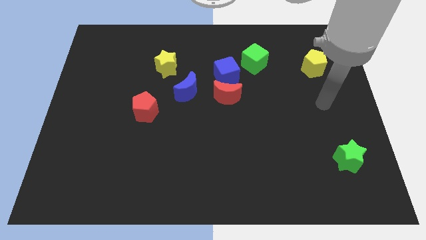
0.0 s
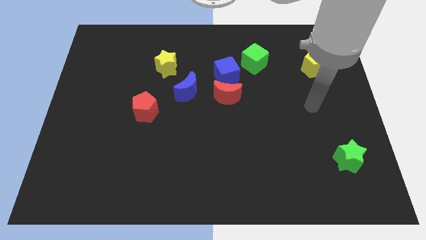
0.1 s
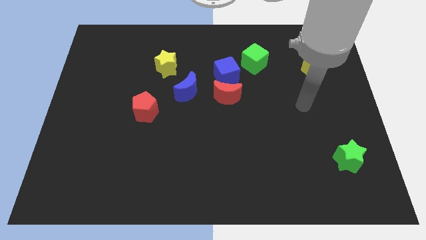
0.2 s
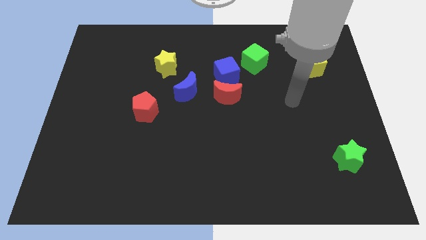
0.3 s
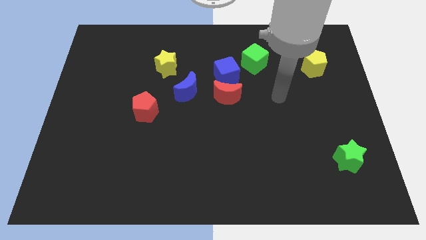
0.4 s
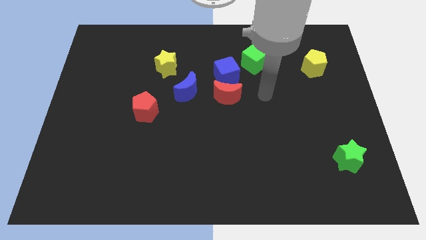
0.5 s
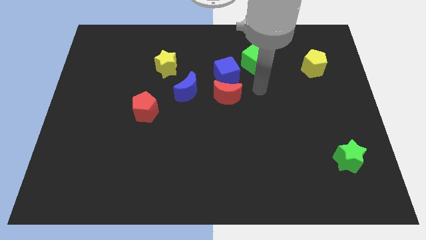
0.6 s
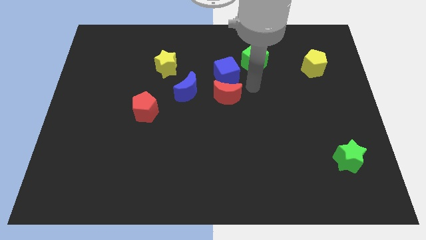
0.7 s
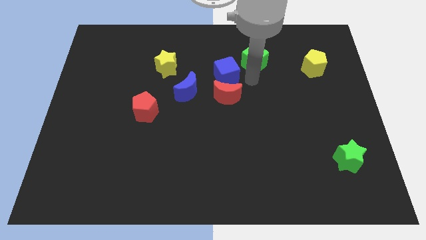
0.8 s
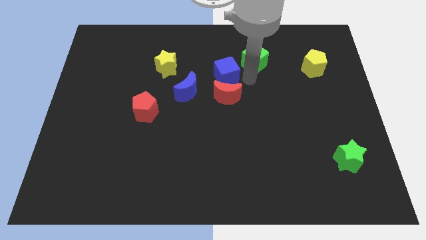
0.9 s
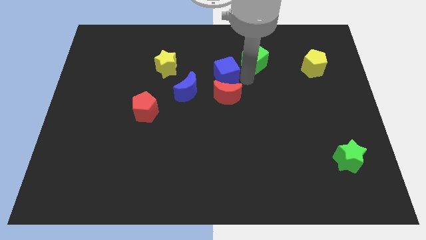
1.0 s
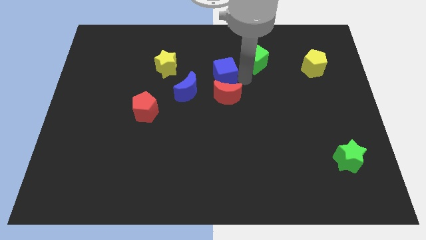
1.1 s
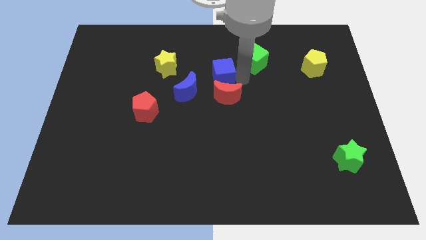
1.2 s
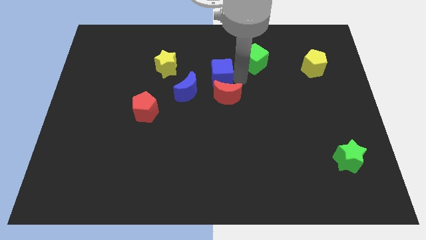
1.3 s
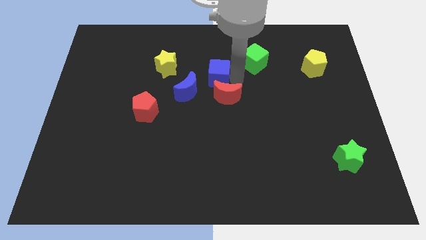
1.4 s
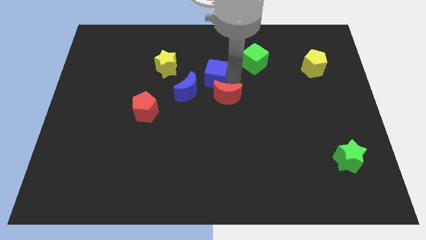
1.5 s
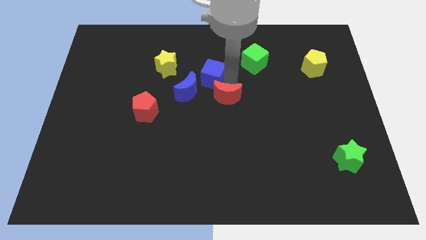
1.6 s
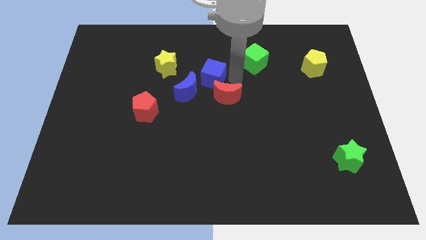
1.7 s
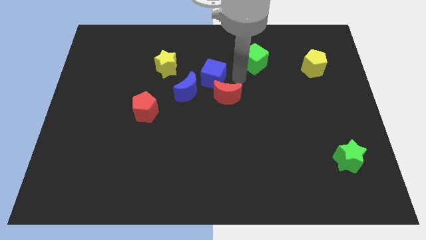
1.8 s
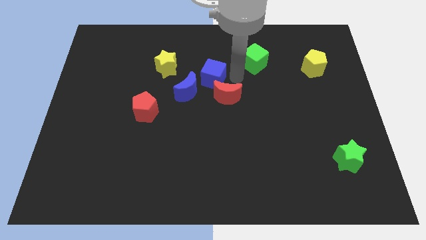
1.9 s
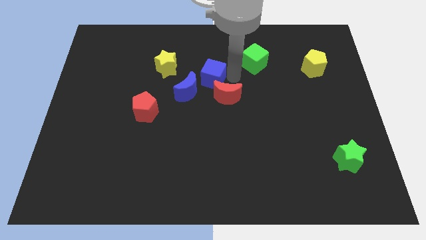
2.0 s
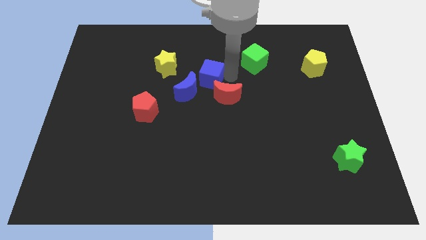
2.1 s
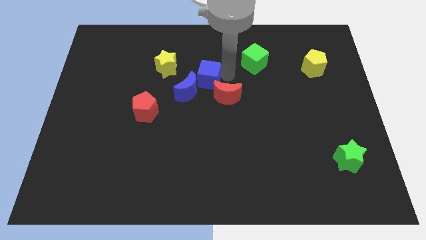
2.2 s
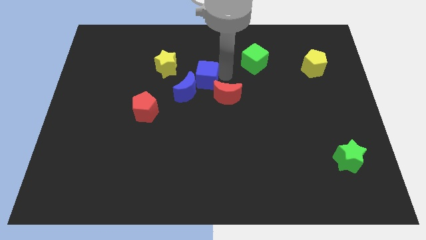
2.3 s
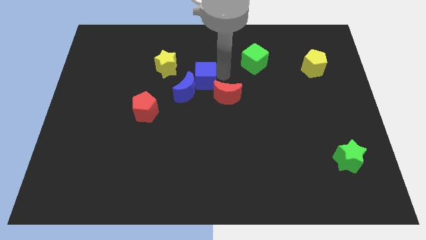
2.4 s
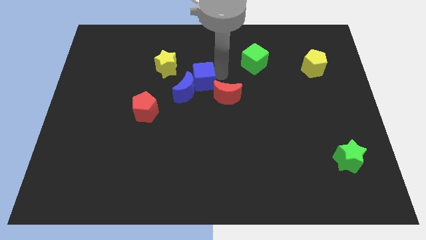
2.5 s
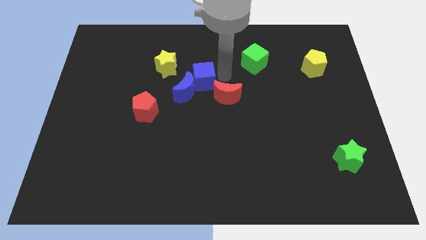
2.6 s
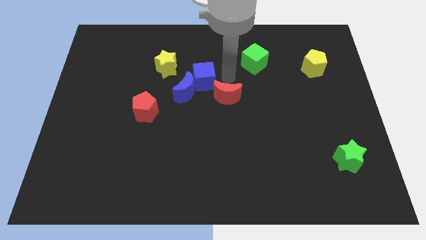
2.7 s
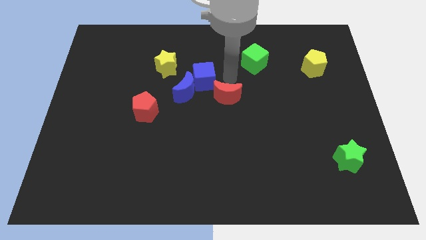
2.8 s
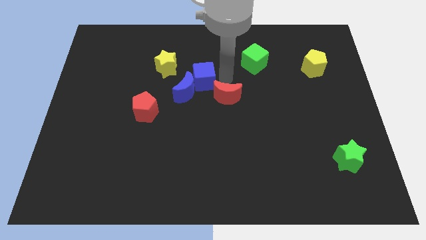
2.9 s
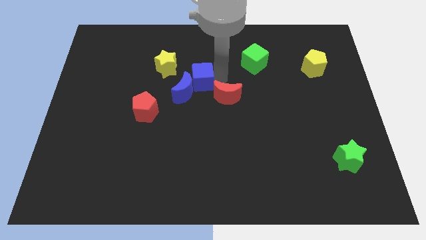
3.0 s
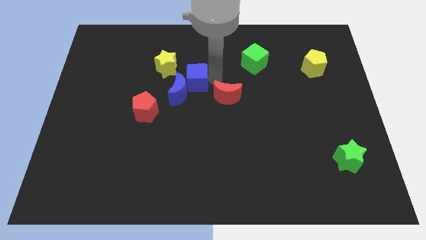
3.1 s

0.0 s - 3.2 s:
pull the blue cube apart from the red moon and green cube

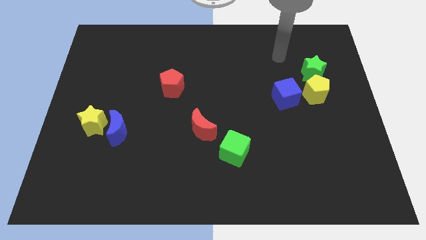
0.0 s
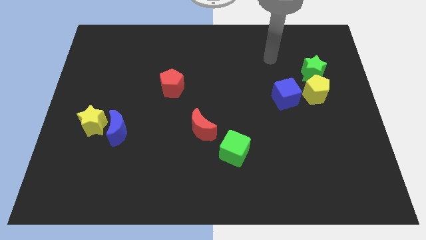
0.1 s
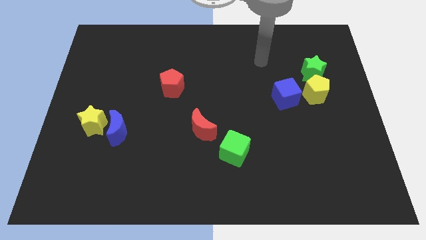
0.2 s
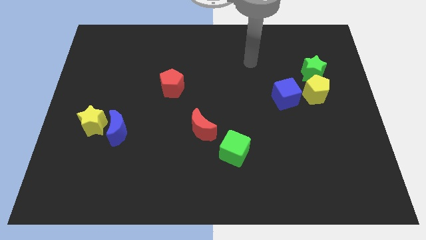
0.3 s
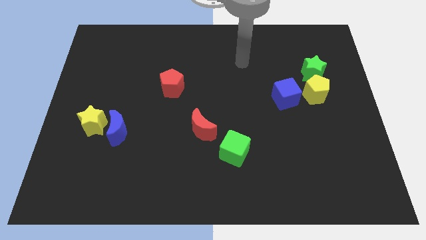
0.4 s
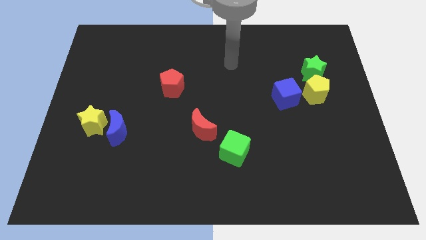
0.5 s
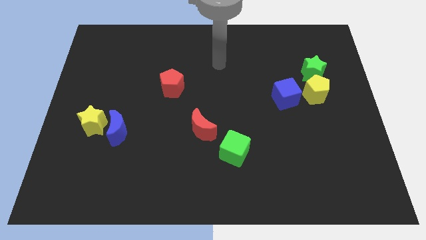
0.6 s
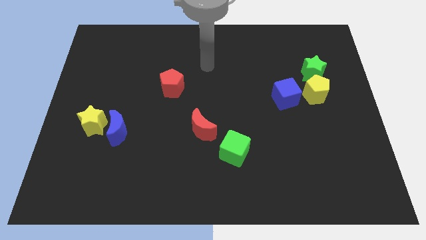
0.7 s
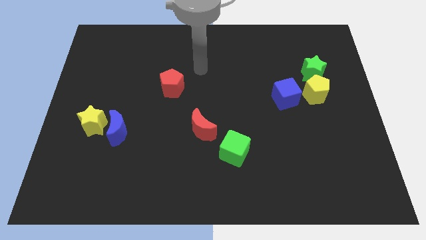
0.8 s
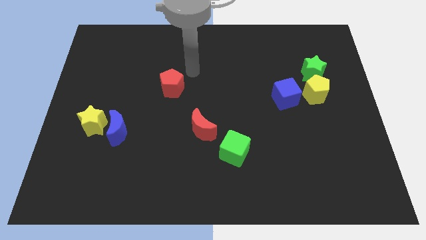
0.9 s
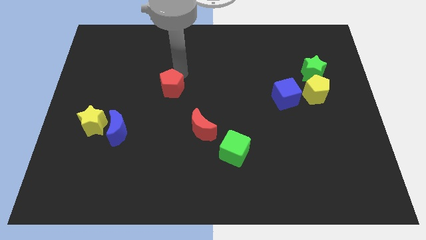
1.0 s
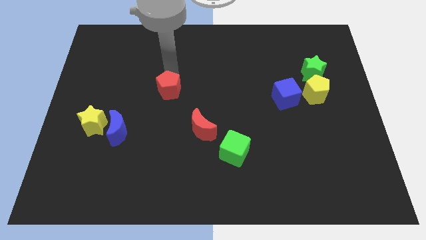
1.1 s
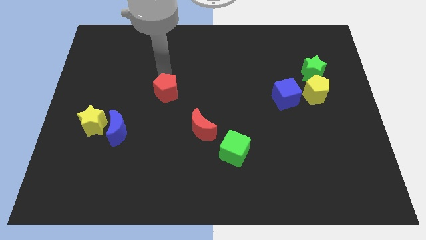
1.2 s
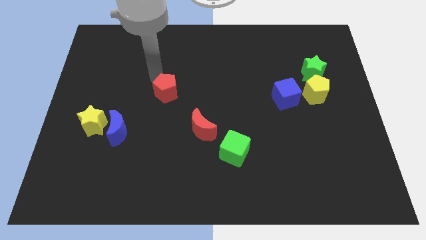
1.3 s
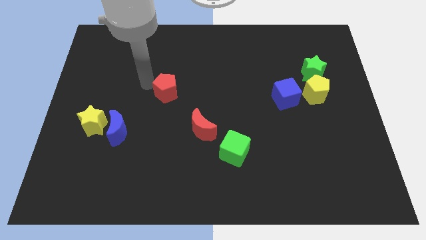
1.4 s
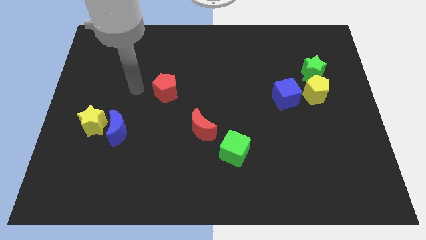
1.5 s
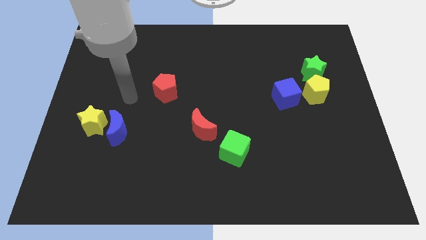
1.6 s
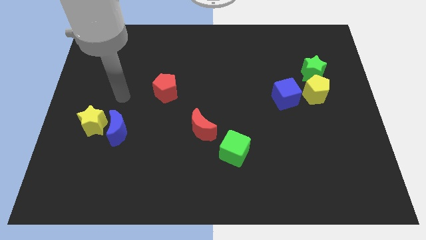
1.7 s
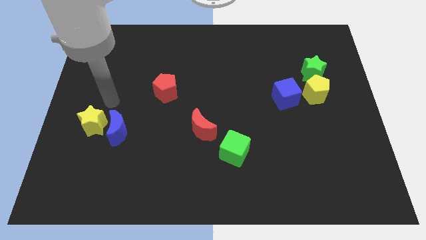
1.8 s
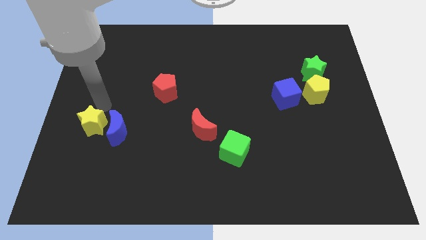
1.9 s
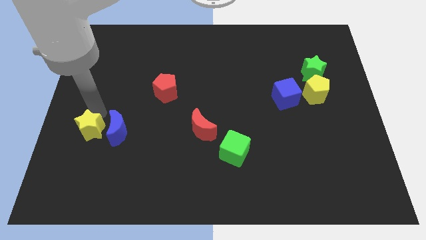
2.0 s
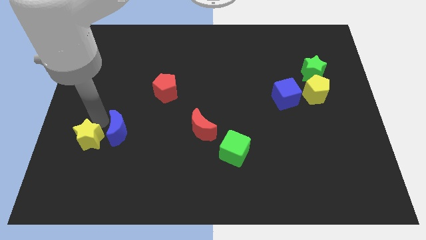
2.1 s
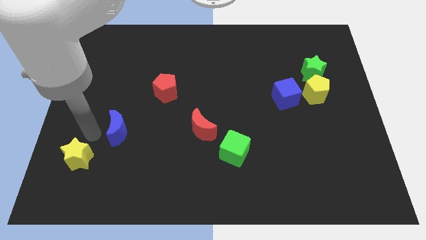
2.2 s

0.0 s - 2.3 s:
move the blue moon away from the yellow star

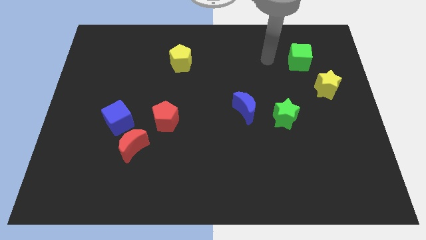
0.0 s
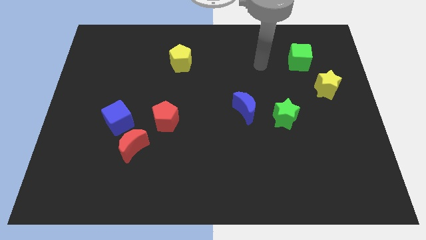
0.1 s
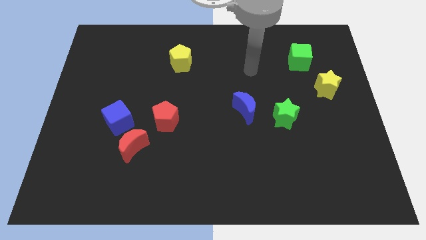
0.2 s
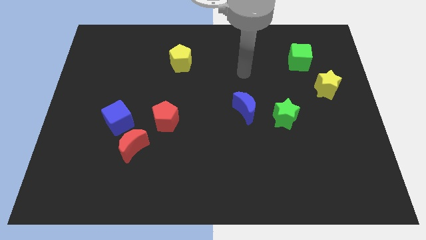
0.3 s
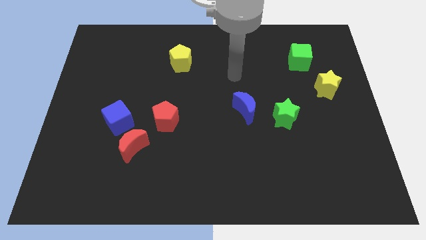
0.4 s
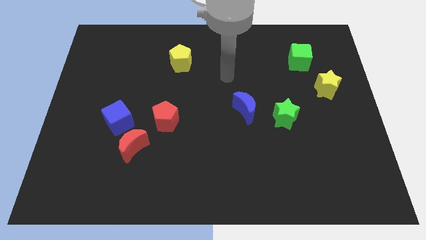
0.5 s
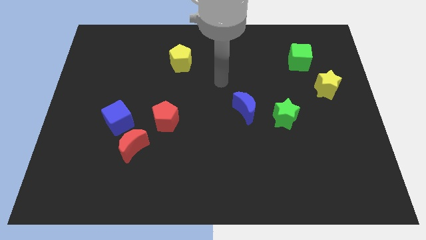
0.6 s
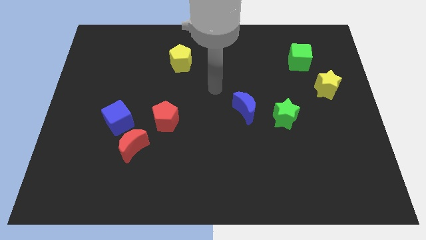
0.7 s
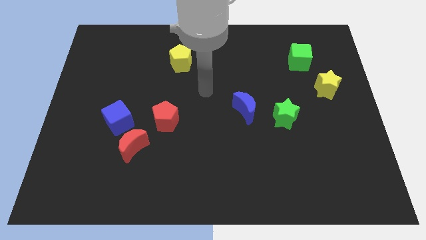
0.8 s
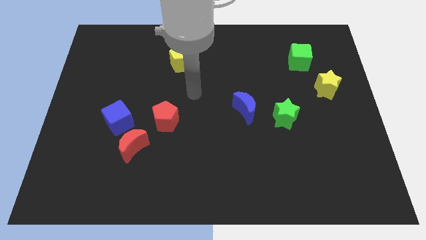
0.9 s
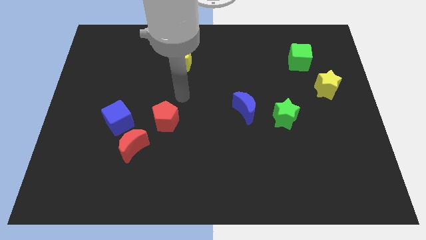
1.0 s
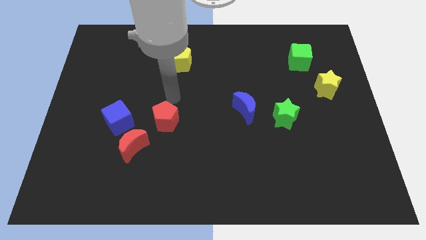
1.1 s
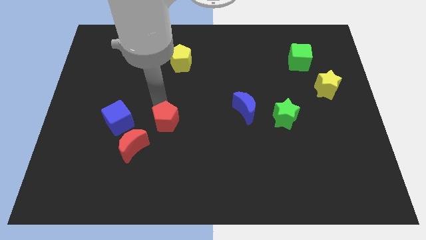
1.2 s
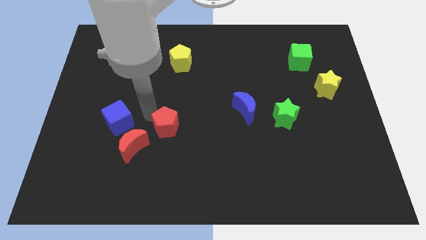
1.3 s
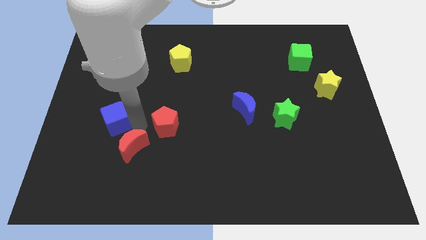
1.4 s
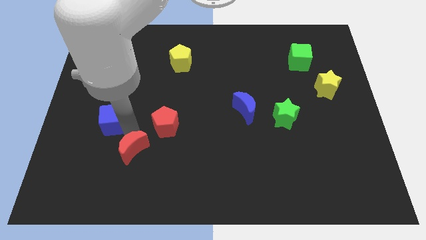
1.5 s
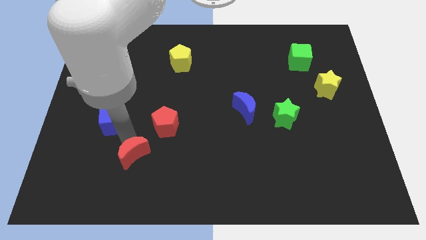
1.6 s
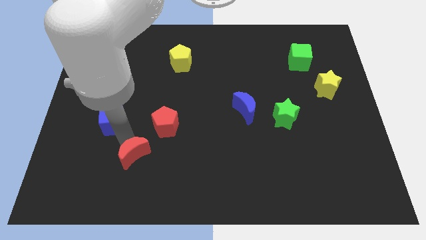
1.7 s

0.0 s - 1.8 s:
separate the blue cube from the red moon

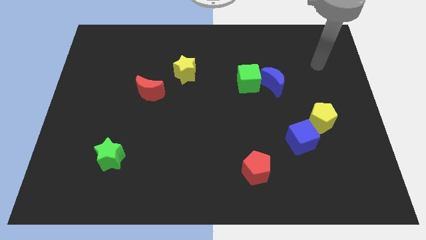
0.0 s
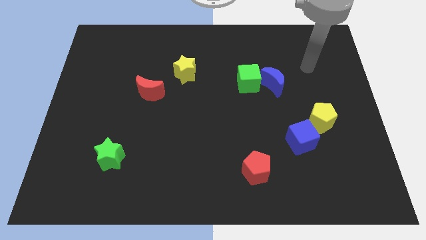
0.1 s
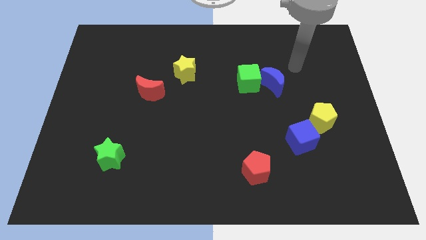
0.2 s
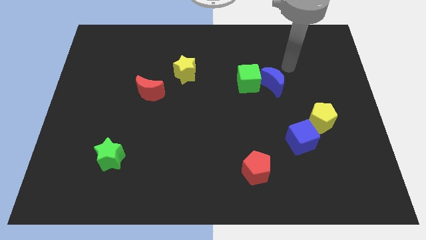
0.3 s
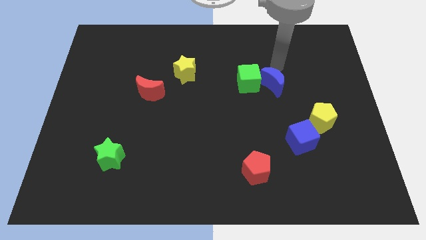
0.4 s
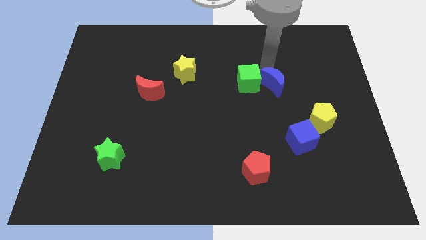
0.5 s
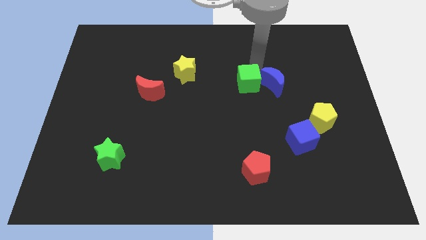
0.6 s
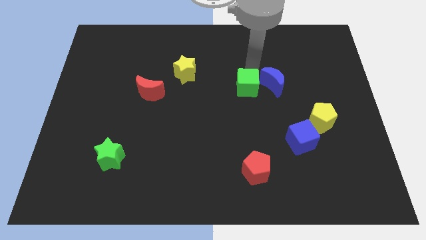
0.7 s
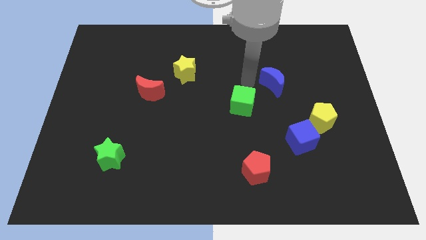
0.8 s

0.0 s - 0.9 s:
pull the blue moon apart from the green cube

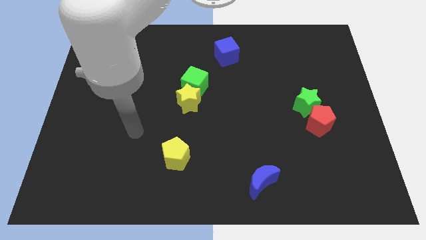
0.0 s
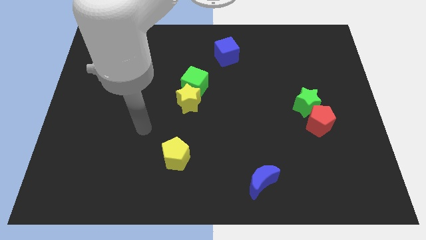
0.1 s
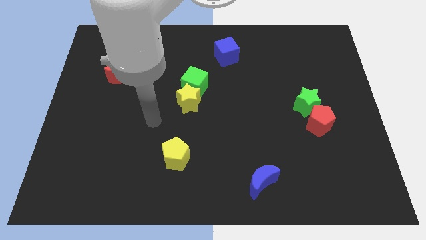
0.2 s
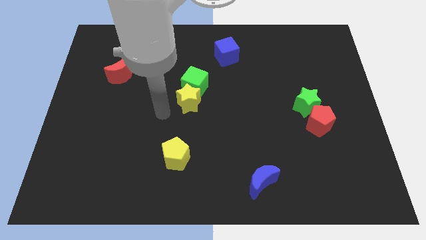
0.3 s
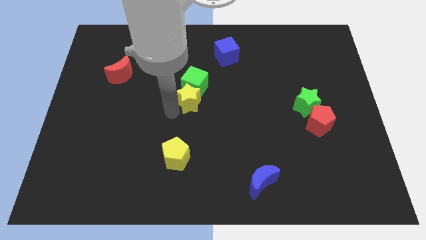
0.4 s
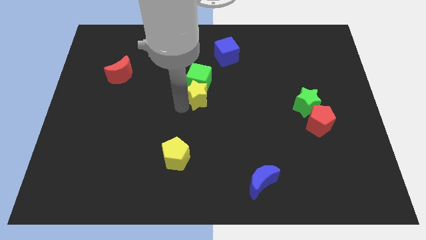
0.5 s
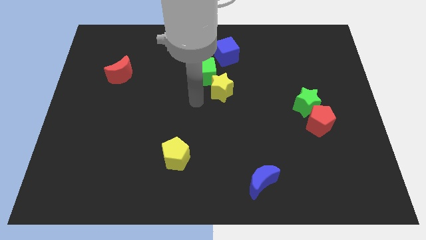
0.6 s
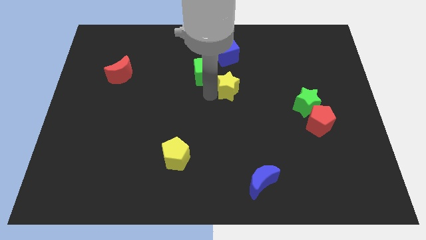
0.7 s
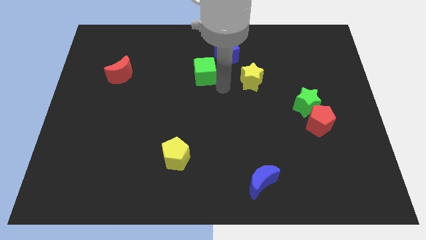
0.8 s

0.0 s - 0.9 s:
move the green cube away from the yellow star

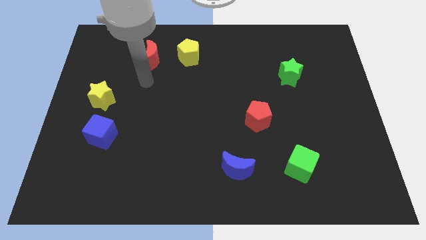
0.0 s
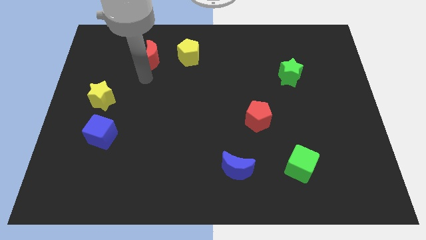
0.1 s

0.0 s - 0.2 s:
separate the red moon from the yellow pentagon
